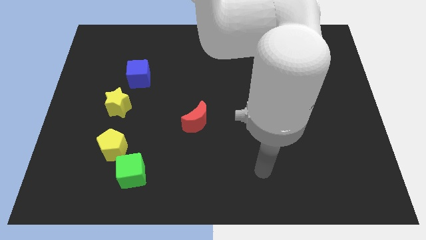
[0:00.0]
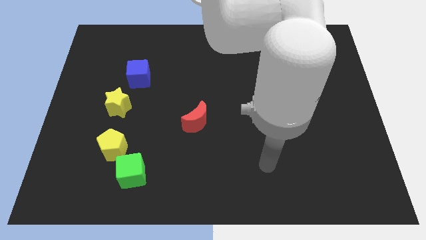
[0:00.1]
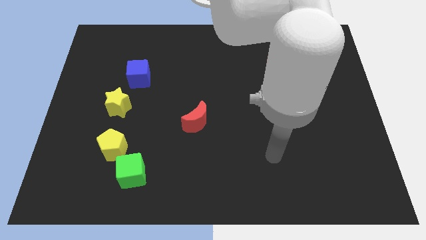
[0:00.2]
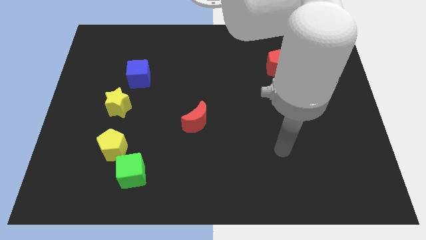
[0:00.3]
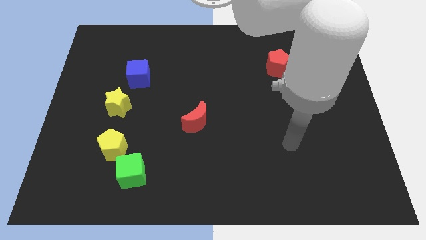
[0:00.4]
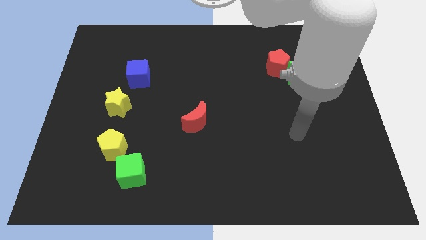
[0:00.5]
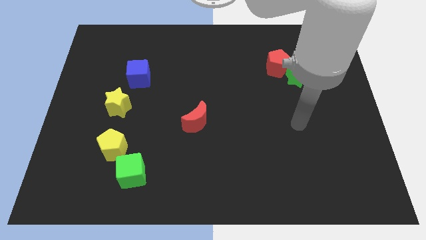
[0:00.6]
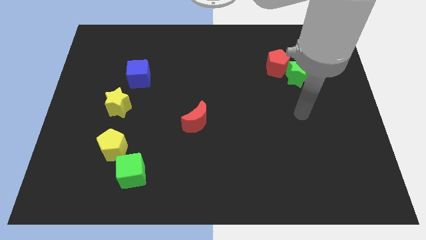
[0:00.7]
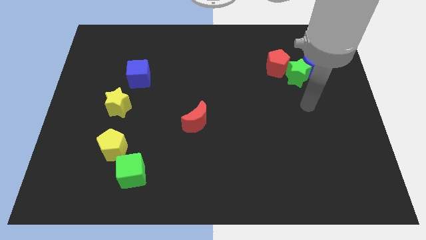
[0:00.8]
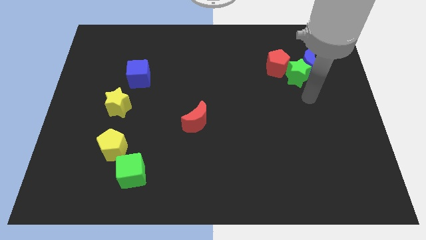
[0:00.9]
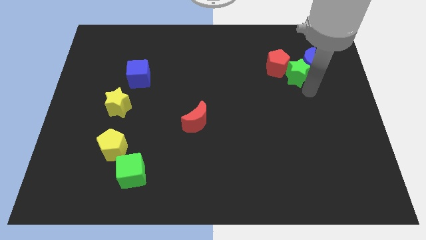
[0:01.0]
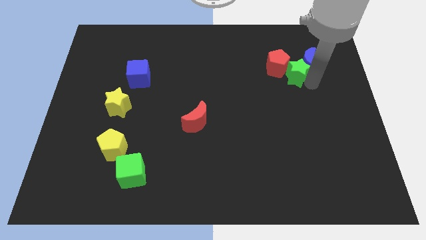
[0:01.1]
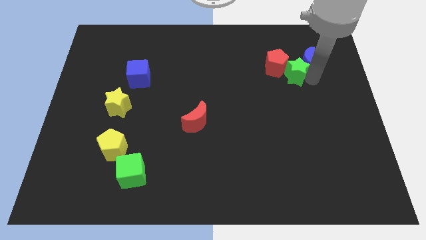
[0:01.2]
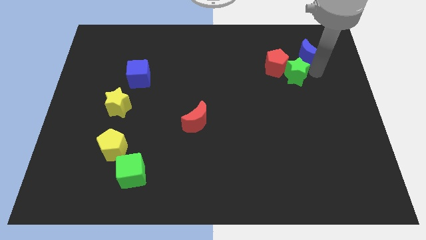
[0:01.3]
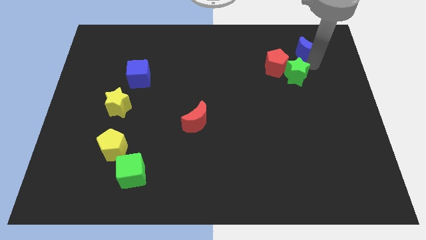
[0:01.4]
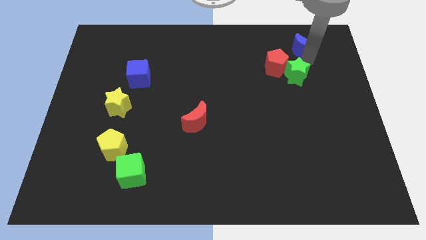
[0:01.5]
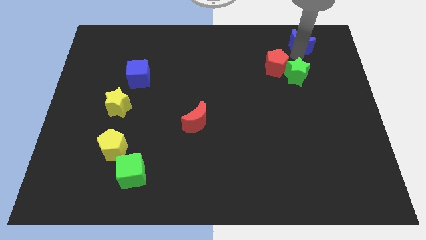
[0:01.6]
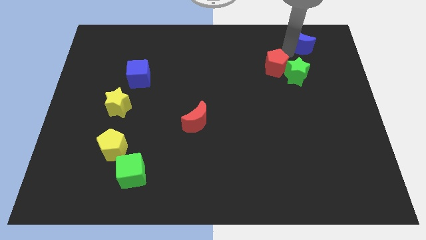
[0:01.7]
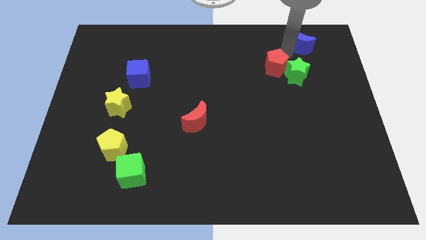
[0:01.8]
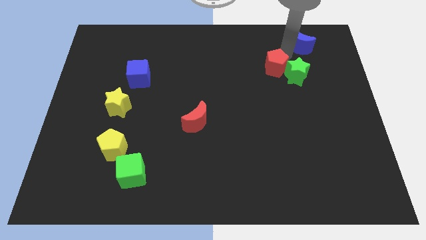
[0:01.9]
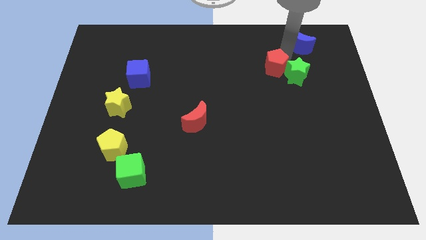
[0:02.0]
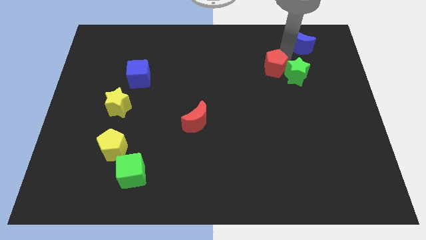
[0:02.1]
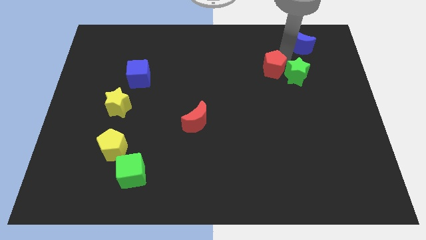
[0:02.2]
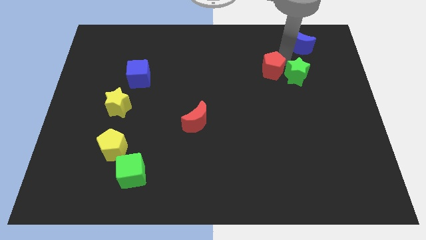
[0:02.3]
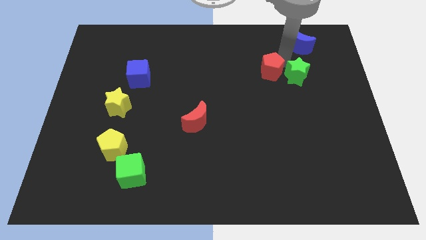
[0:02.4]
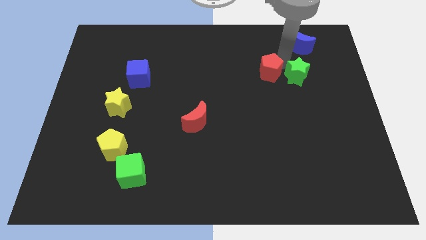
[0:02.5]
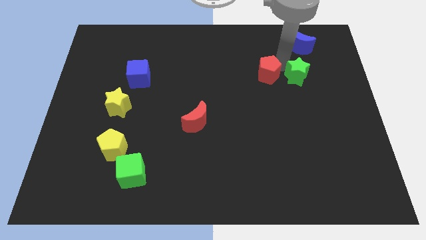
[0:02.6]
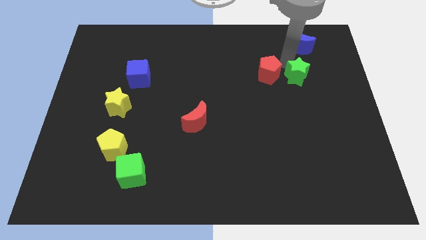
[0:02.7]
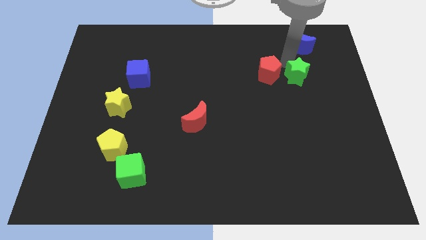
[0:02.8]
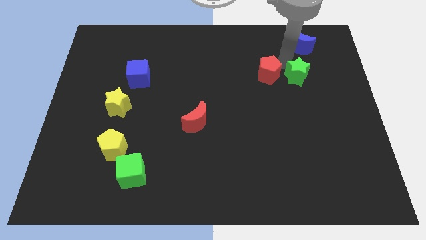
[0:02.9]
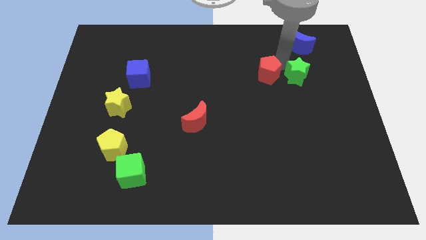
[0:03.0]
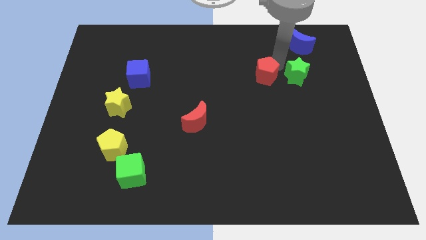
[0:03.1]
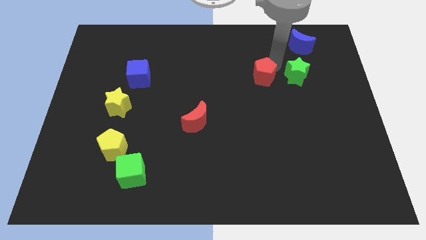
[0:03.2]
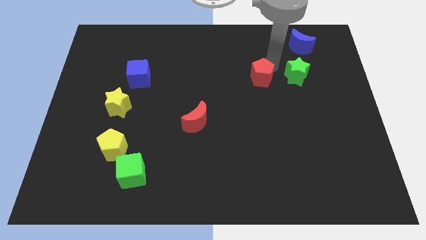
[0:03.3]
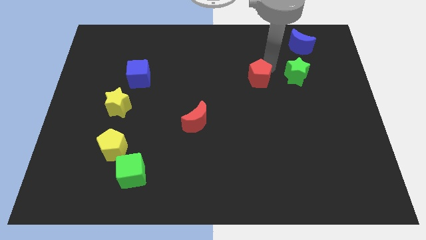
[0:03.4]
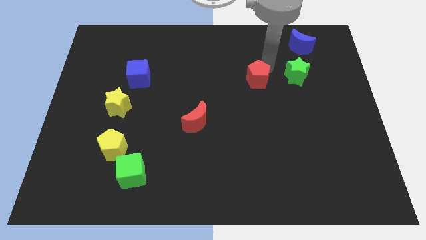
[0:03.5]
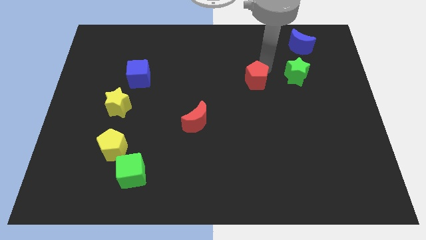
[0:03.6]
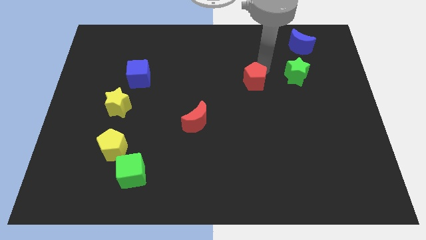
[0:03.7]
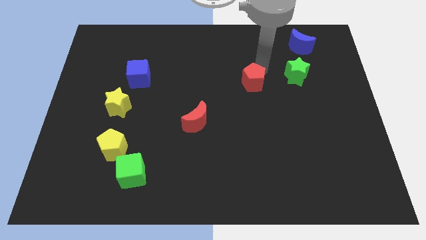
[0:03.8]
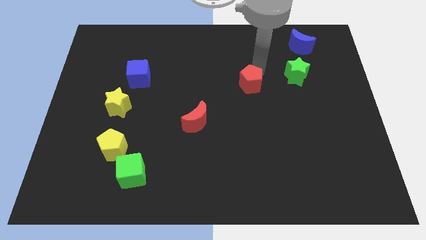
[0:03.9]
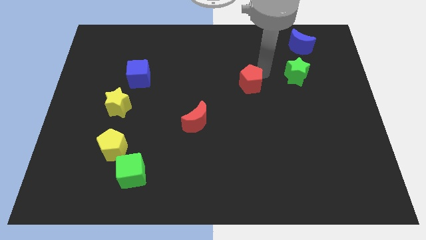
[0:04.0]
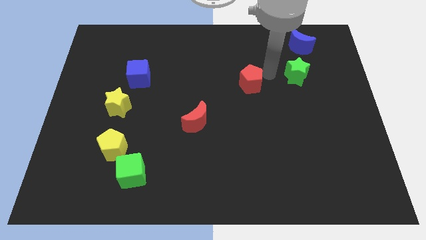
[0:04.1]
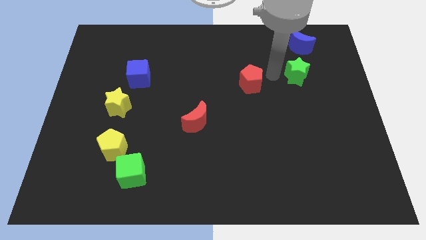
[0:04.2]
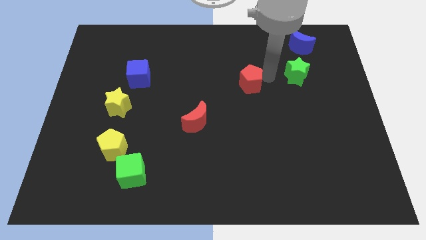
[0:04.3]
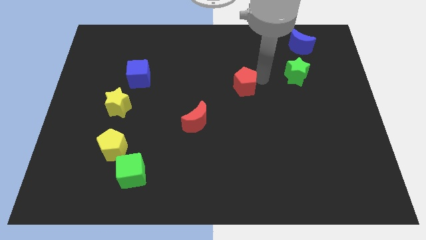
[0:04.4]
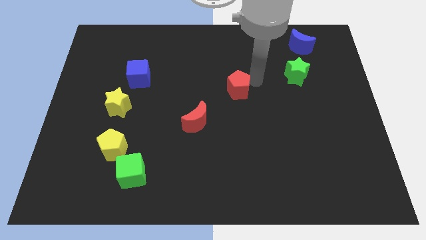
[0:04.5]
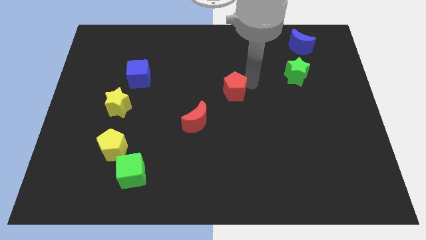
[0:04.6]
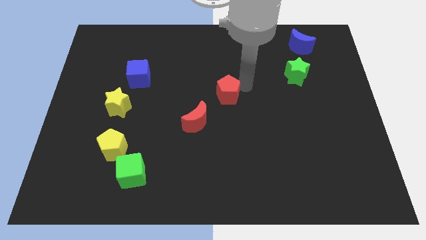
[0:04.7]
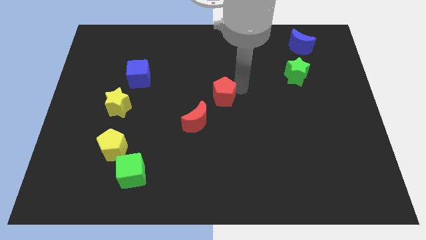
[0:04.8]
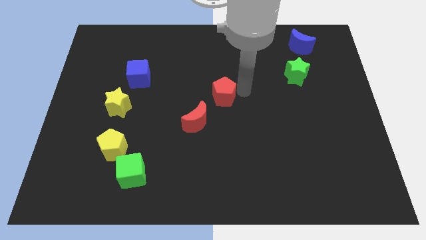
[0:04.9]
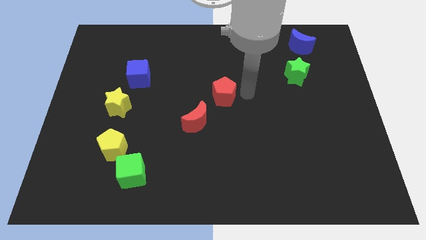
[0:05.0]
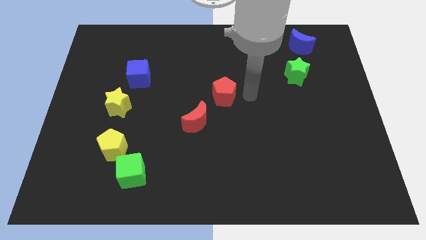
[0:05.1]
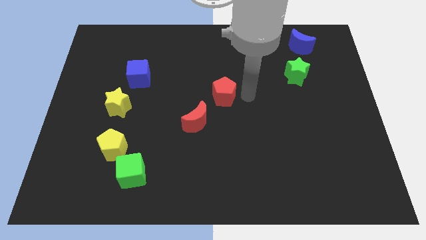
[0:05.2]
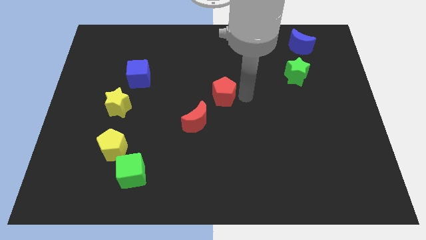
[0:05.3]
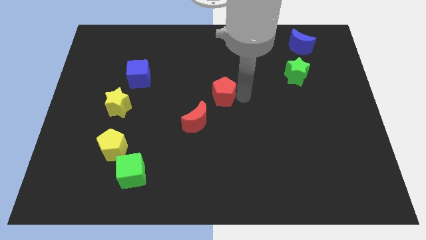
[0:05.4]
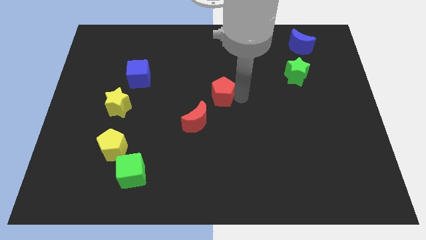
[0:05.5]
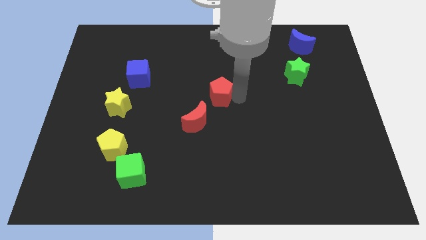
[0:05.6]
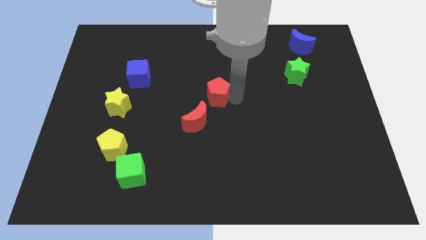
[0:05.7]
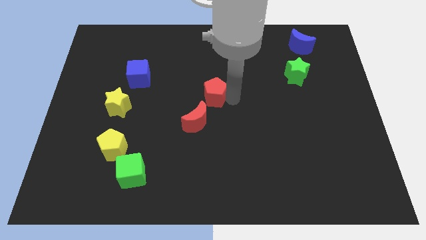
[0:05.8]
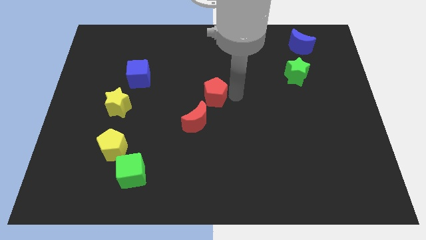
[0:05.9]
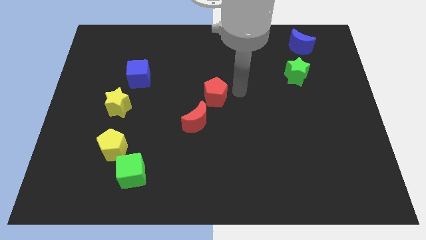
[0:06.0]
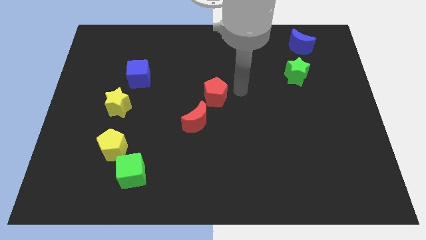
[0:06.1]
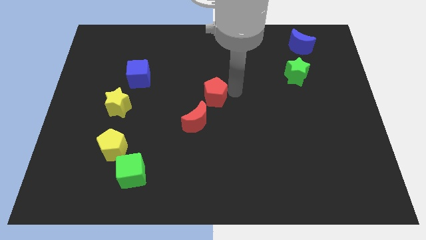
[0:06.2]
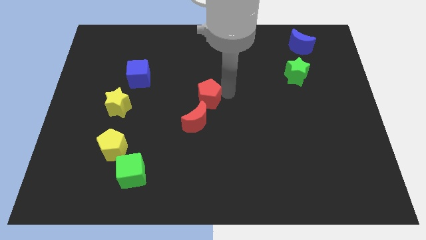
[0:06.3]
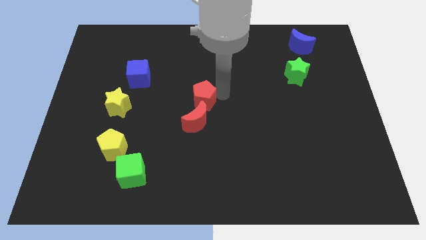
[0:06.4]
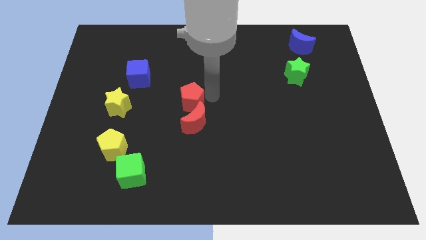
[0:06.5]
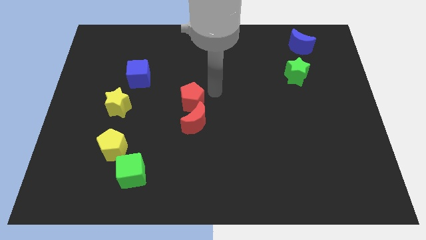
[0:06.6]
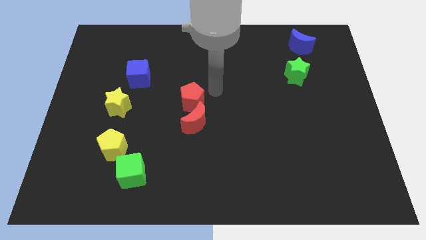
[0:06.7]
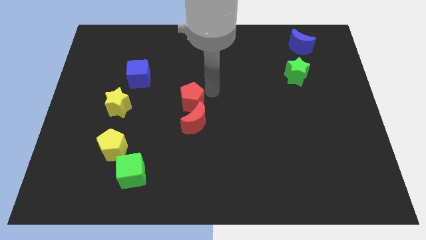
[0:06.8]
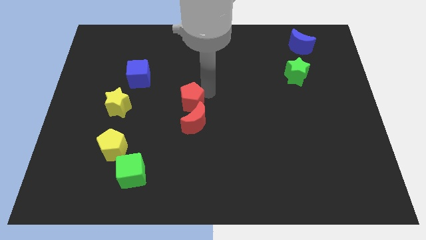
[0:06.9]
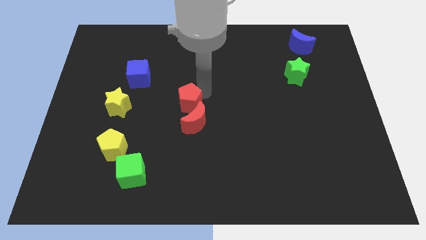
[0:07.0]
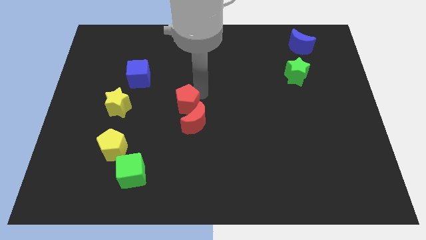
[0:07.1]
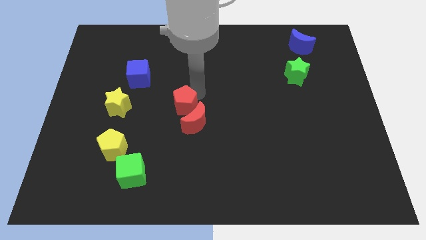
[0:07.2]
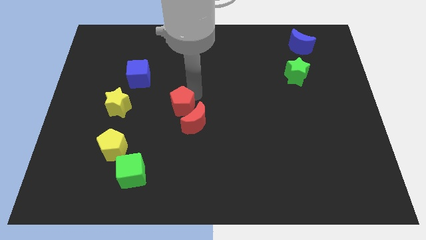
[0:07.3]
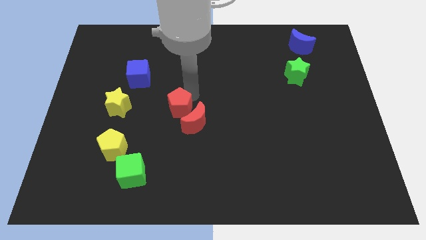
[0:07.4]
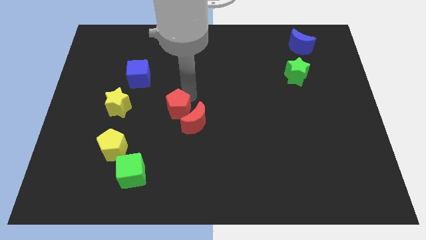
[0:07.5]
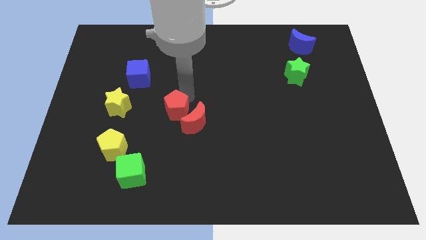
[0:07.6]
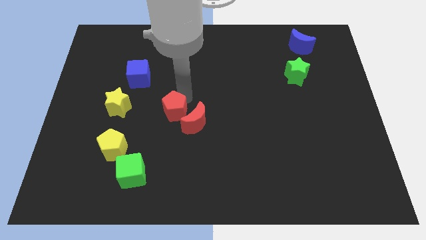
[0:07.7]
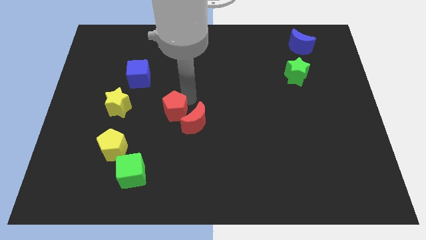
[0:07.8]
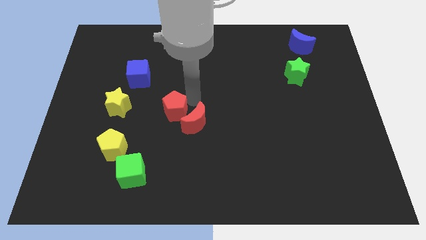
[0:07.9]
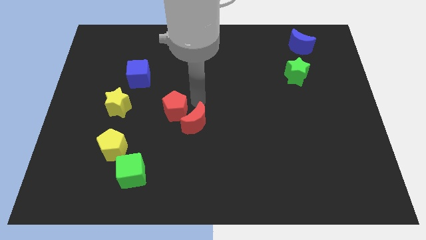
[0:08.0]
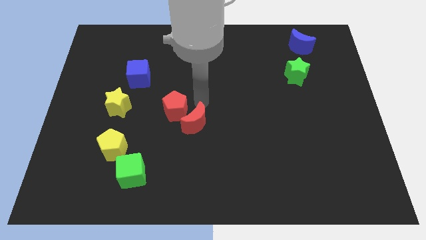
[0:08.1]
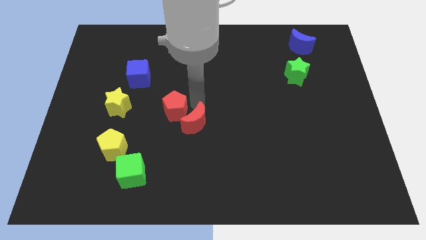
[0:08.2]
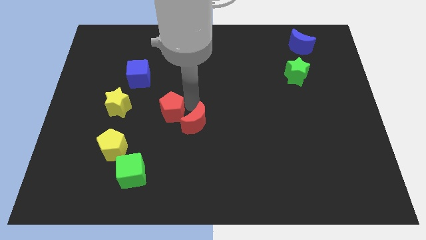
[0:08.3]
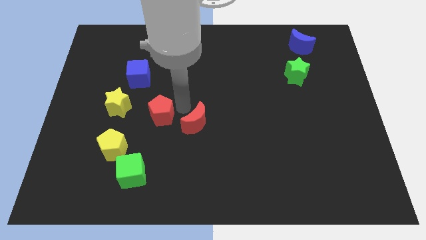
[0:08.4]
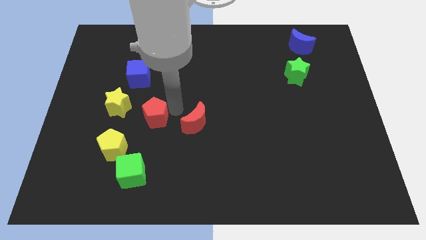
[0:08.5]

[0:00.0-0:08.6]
slide the red pentagon diagonally down and to the right of the yellow star
